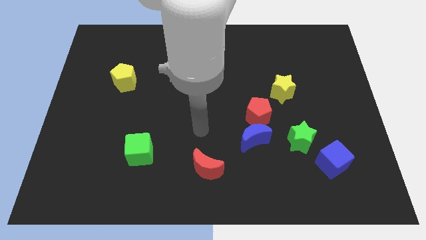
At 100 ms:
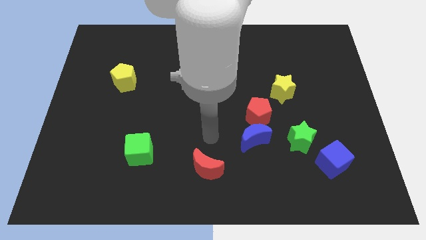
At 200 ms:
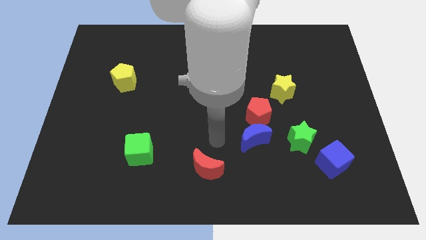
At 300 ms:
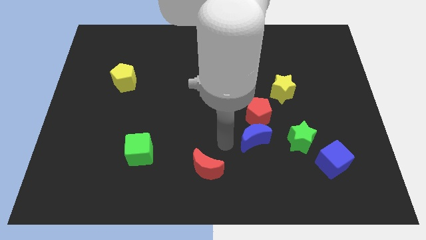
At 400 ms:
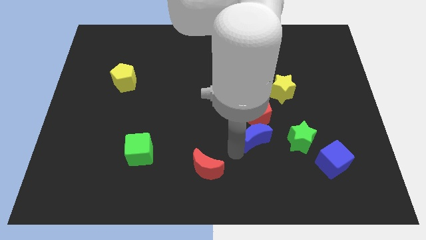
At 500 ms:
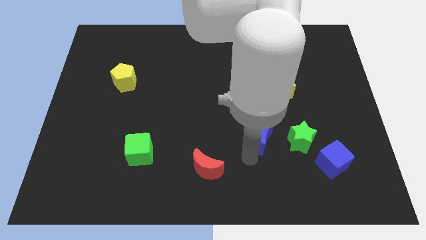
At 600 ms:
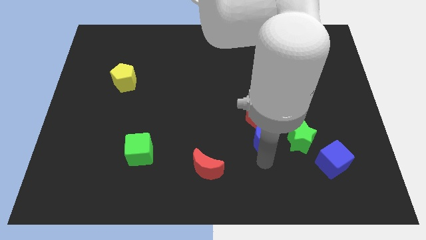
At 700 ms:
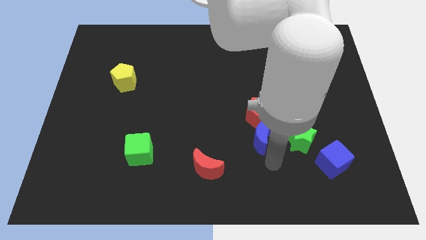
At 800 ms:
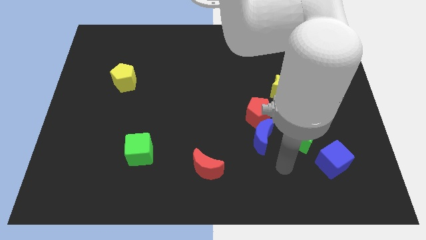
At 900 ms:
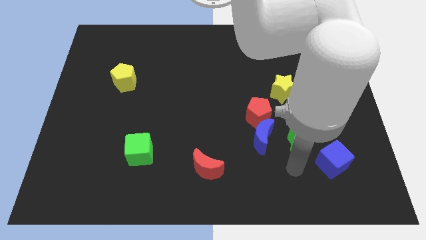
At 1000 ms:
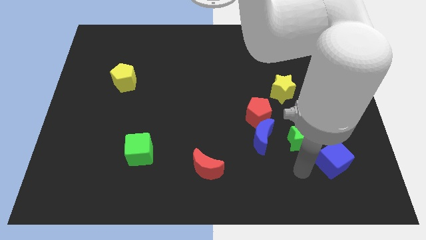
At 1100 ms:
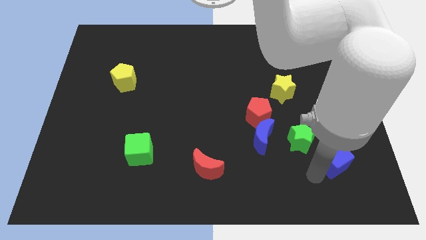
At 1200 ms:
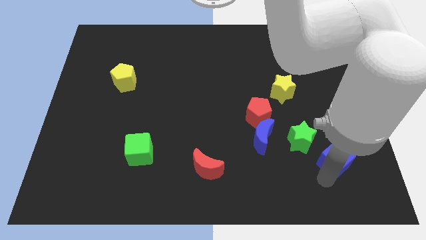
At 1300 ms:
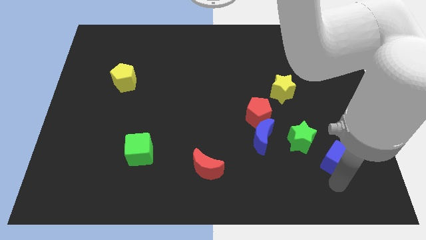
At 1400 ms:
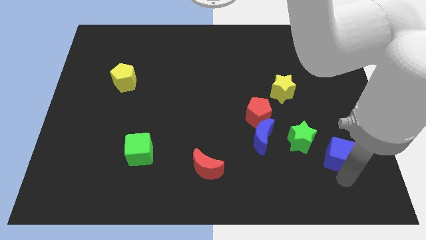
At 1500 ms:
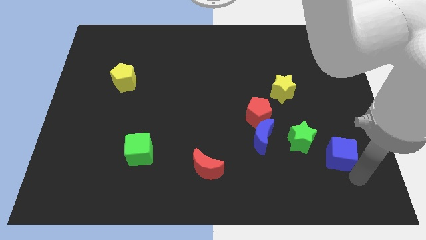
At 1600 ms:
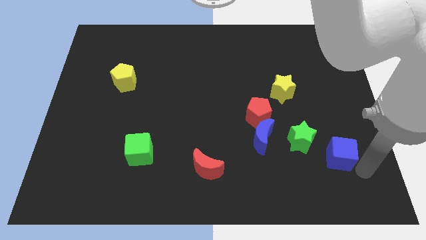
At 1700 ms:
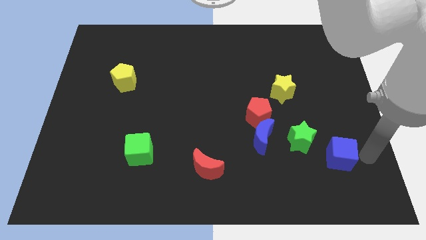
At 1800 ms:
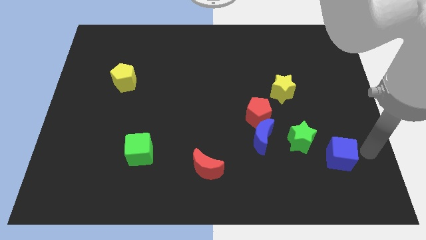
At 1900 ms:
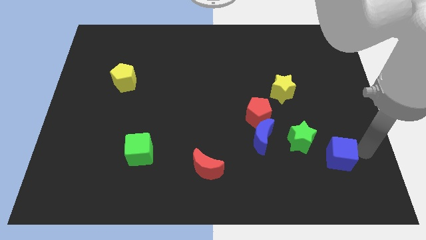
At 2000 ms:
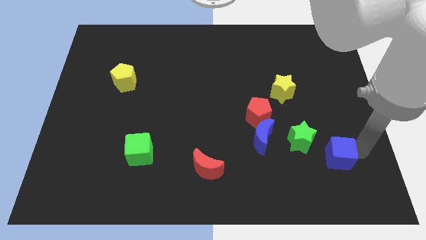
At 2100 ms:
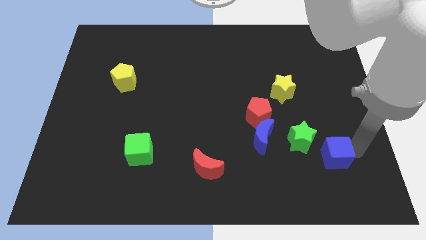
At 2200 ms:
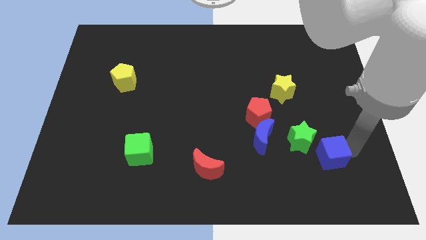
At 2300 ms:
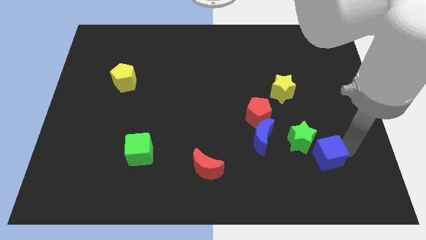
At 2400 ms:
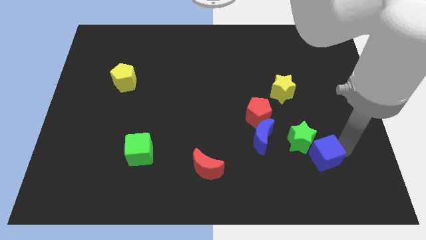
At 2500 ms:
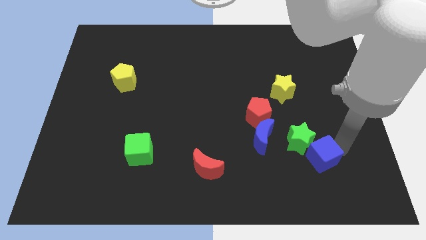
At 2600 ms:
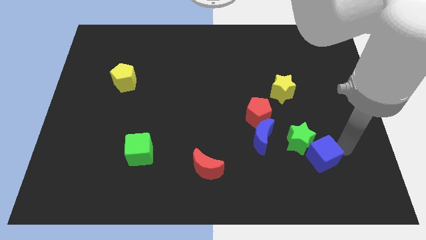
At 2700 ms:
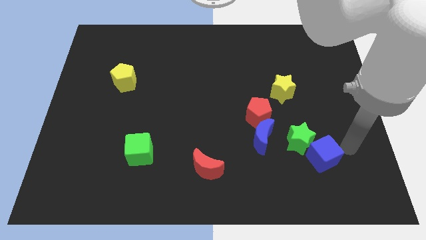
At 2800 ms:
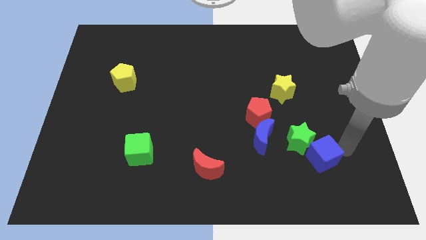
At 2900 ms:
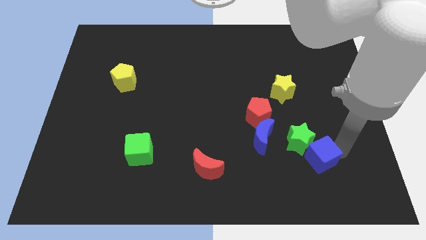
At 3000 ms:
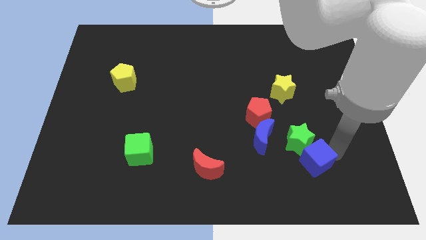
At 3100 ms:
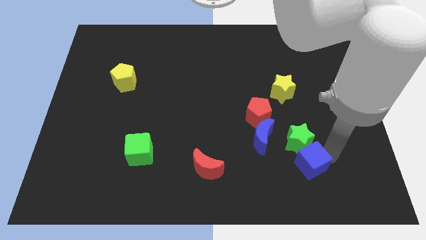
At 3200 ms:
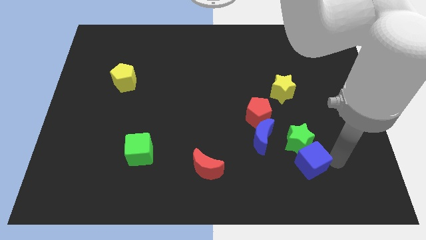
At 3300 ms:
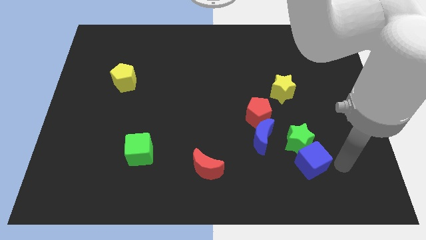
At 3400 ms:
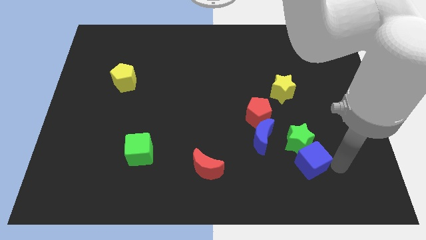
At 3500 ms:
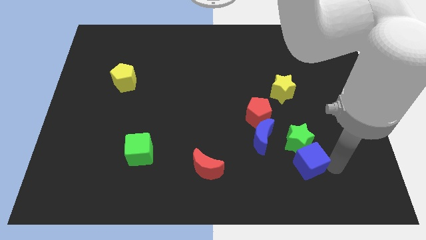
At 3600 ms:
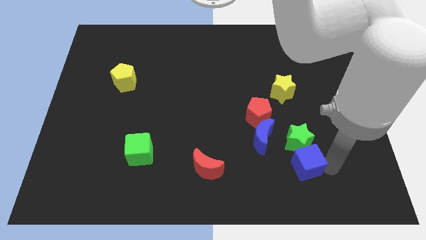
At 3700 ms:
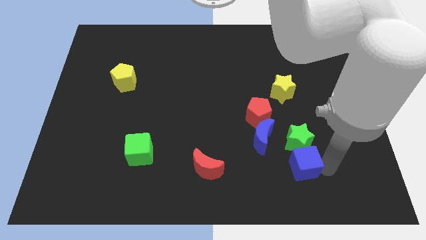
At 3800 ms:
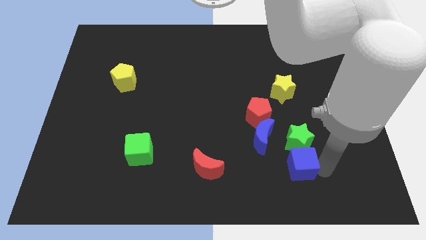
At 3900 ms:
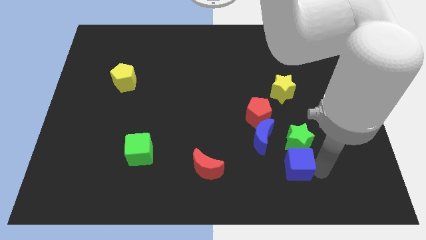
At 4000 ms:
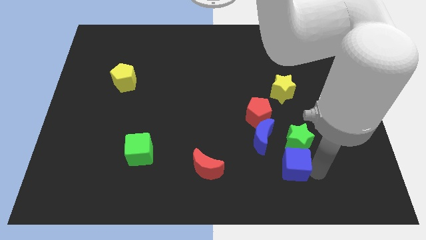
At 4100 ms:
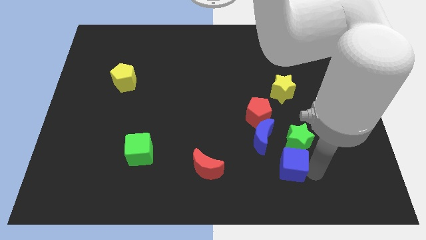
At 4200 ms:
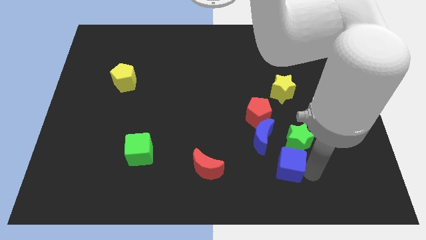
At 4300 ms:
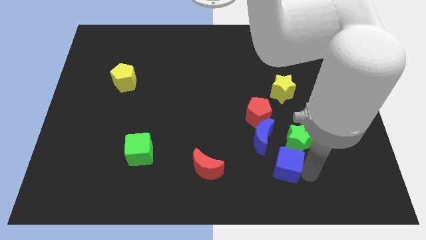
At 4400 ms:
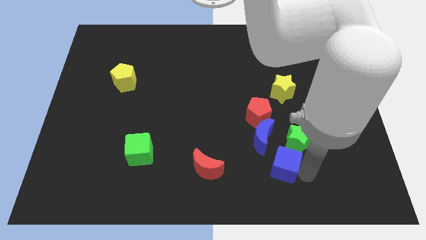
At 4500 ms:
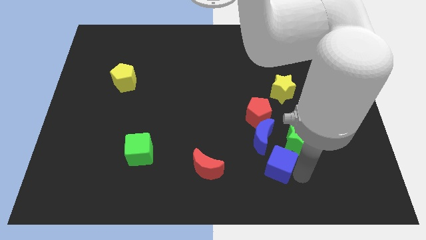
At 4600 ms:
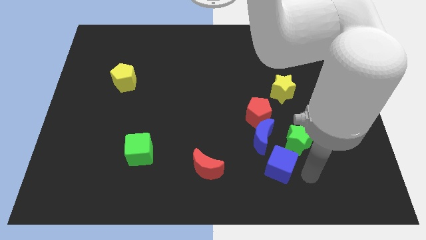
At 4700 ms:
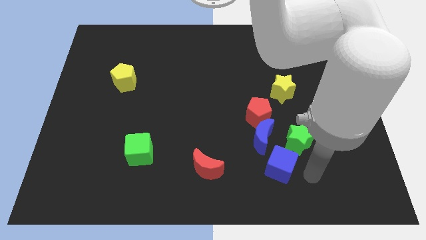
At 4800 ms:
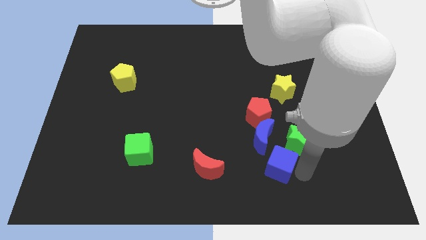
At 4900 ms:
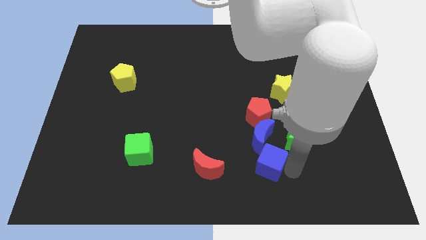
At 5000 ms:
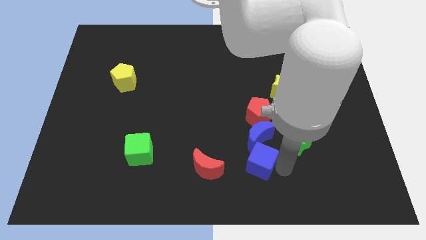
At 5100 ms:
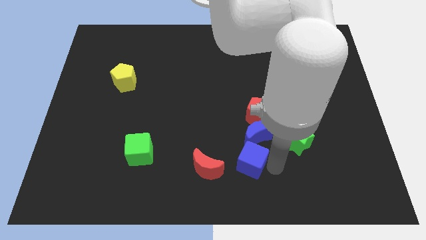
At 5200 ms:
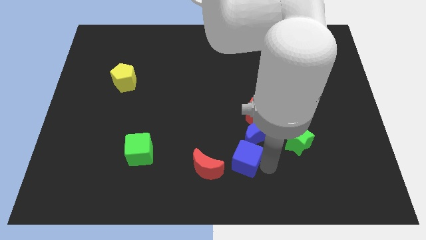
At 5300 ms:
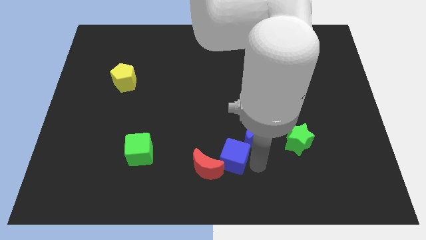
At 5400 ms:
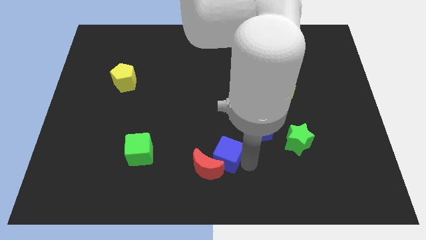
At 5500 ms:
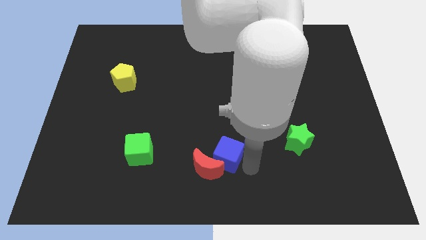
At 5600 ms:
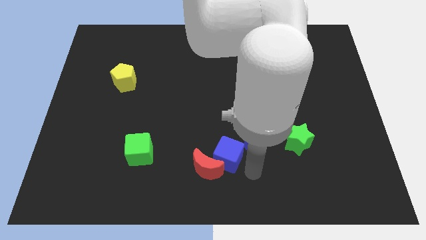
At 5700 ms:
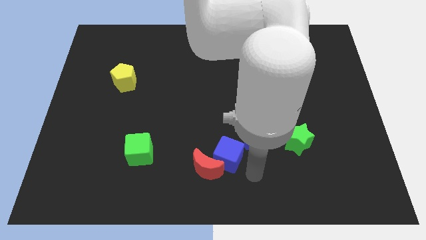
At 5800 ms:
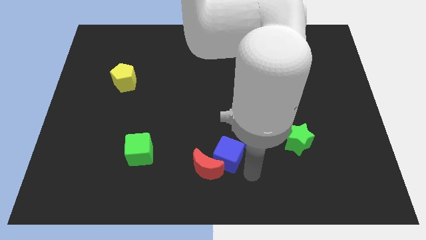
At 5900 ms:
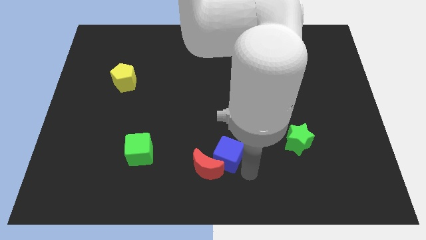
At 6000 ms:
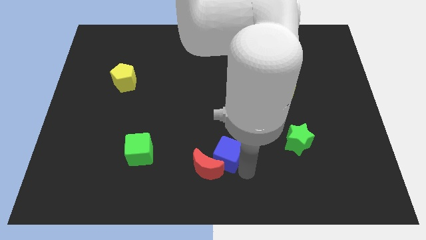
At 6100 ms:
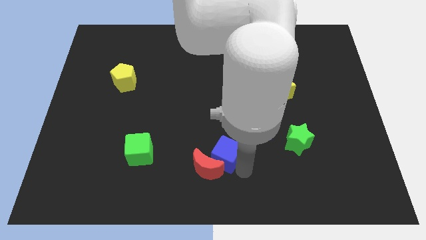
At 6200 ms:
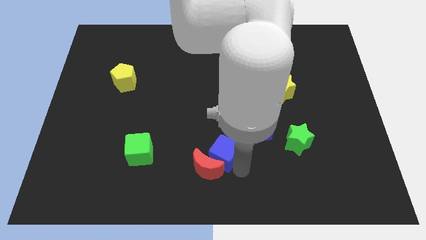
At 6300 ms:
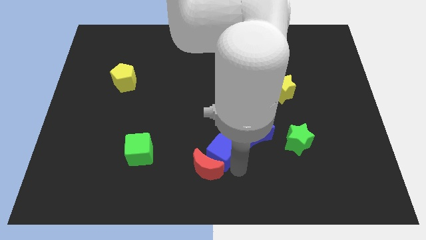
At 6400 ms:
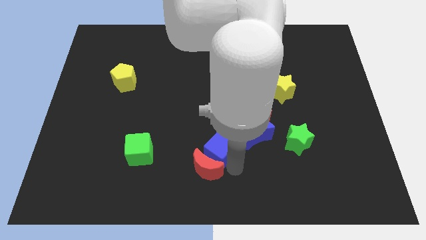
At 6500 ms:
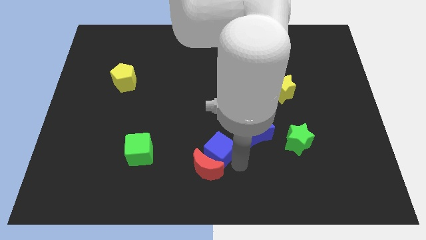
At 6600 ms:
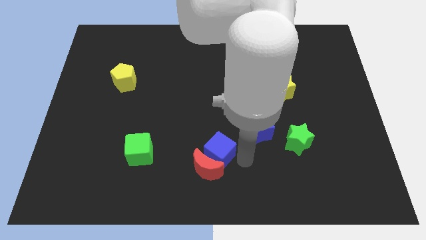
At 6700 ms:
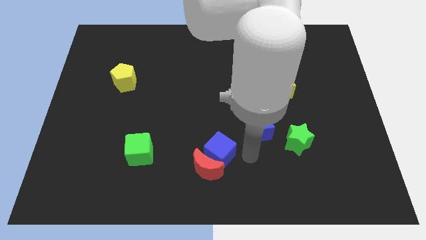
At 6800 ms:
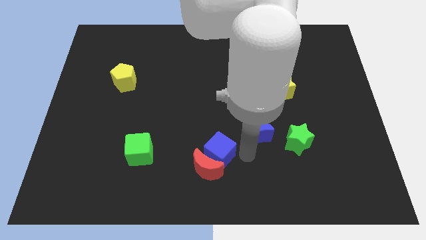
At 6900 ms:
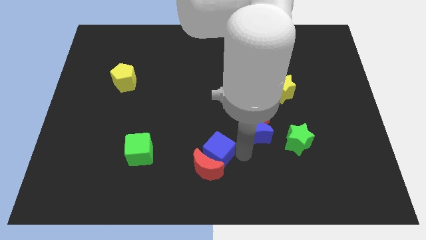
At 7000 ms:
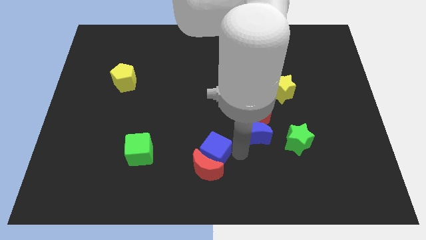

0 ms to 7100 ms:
slide the blue cube just right of the green cube
